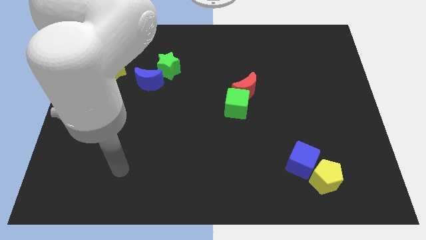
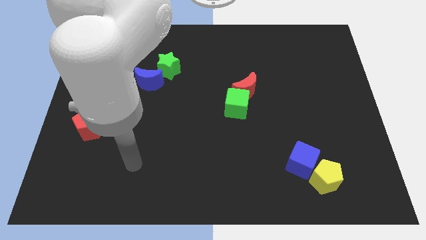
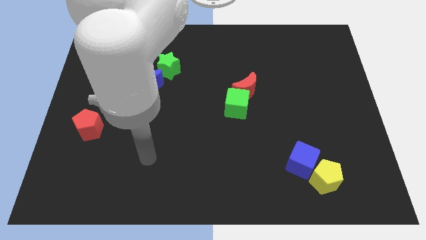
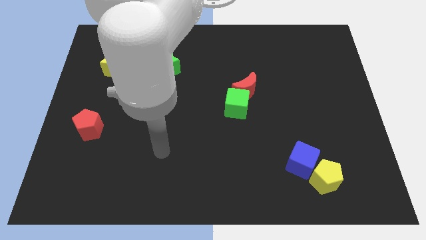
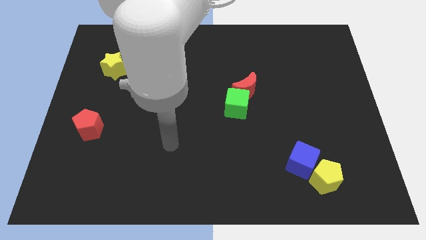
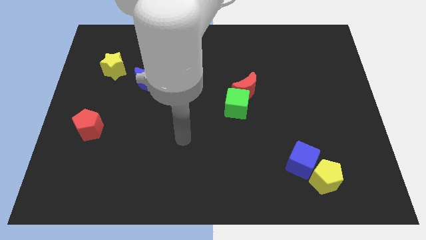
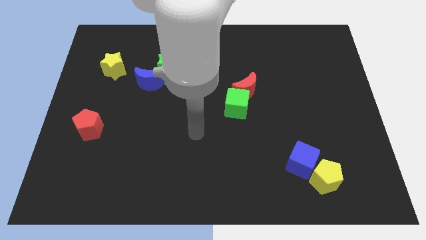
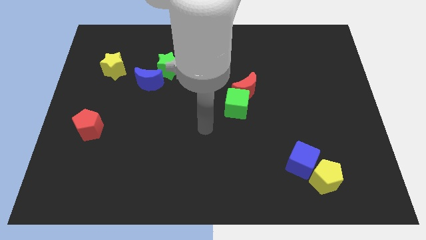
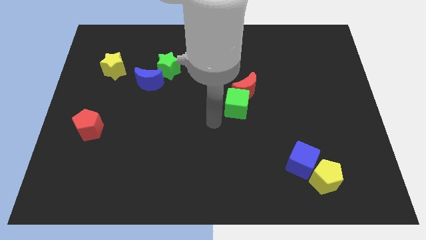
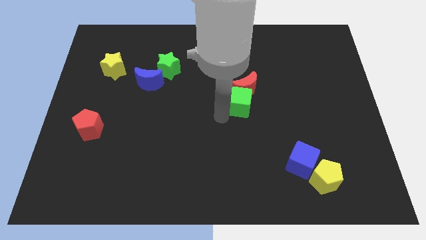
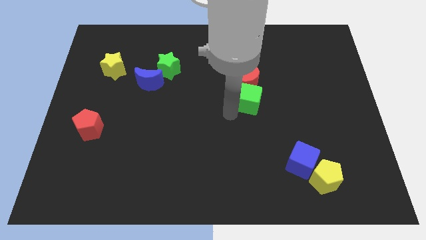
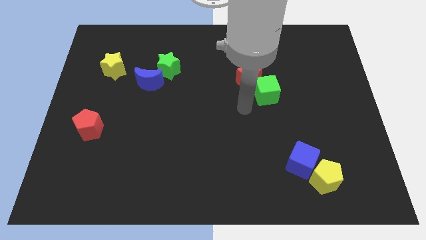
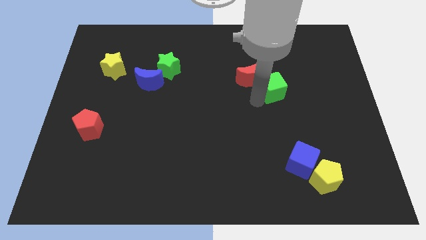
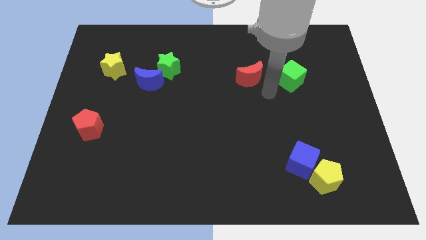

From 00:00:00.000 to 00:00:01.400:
separate the red moon from the green cube

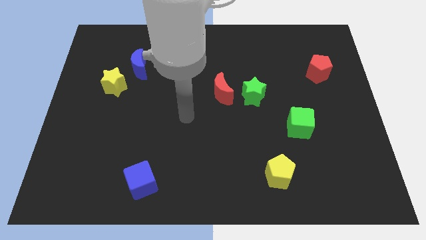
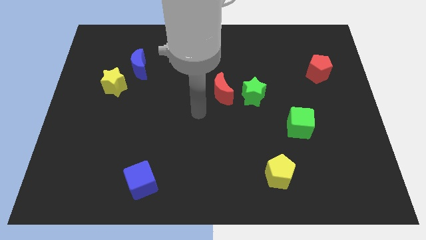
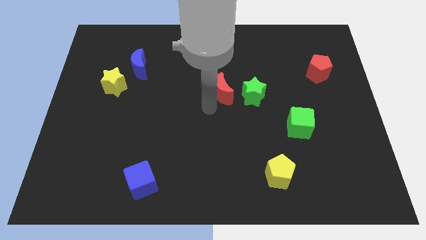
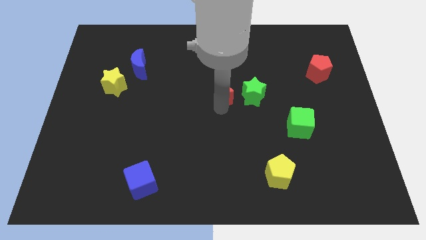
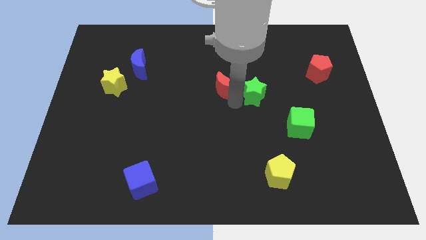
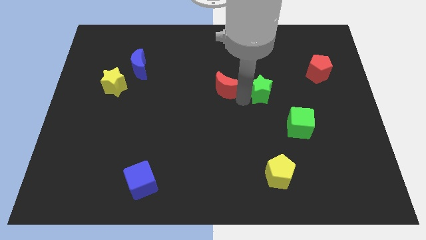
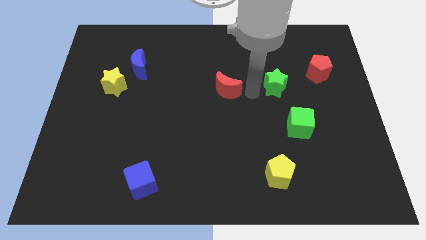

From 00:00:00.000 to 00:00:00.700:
pull the red moon apart from the green star

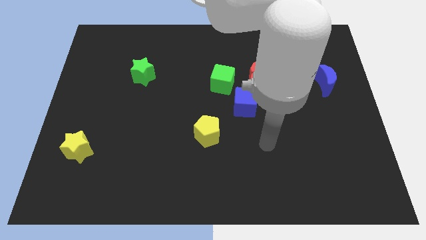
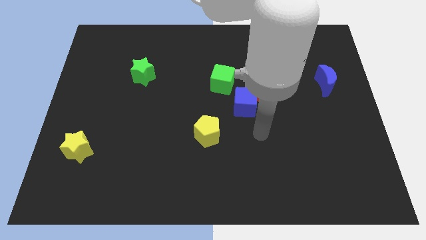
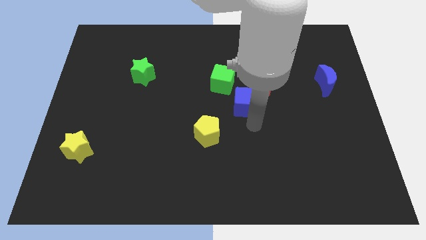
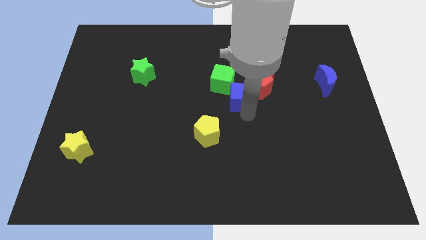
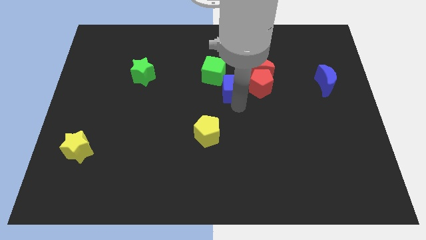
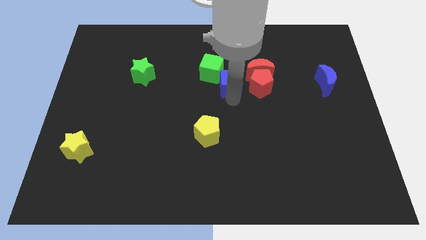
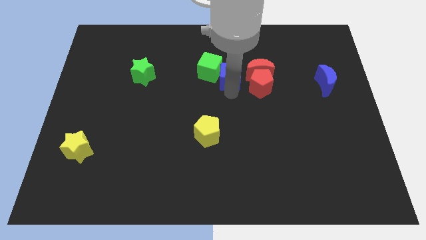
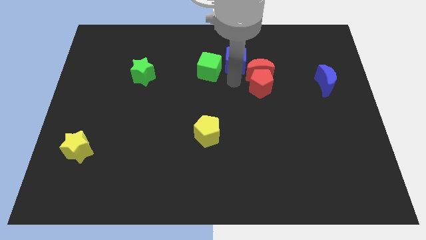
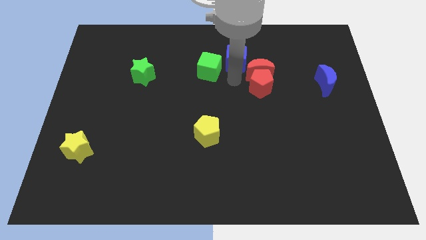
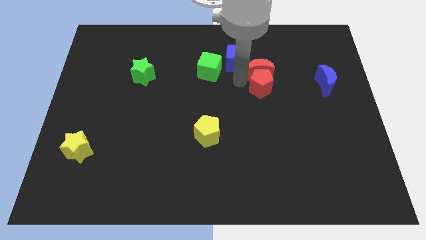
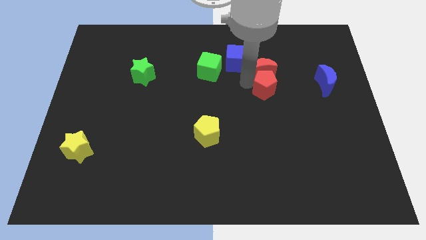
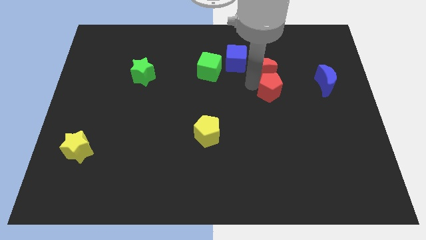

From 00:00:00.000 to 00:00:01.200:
separate the red pentagon from the red moon, blue cube, and green cube

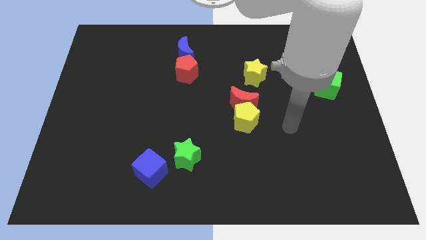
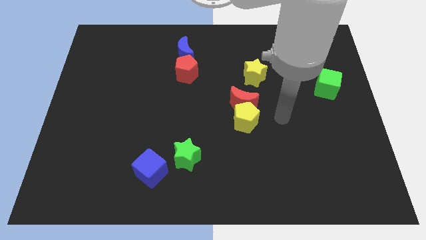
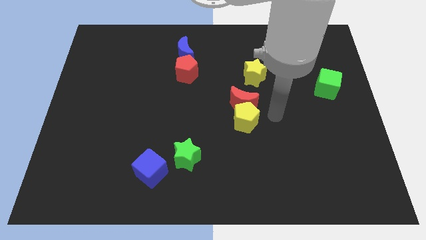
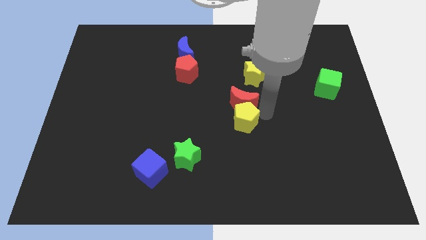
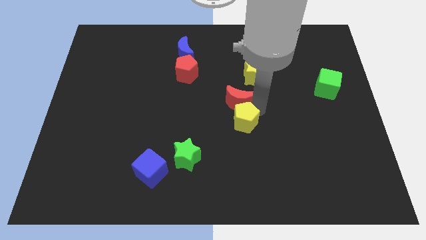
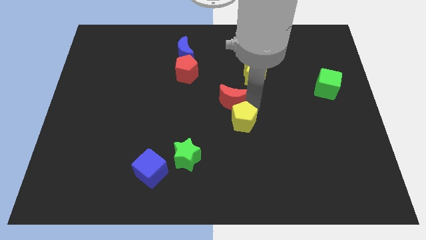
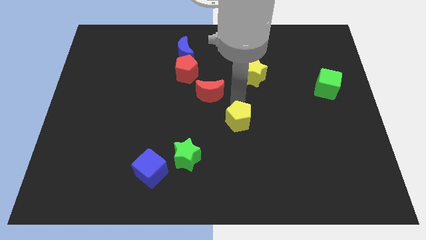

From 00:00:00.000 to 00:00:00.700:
pull the yellow pentagon apart from the red moon

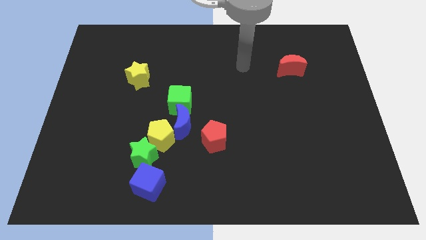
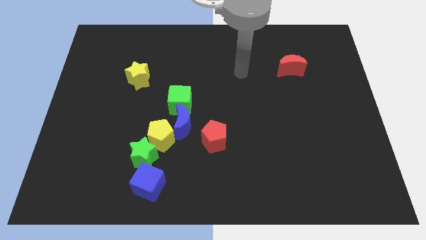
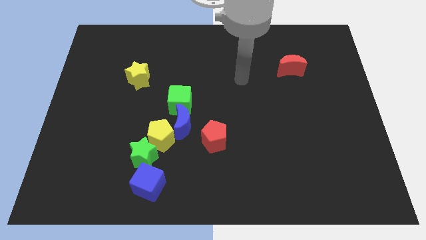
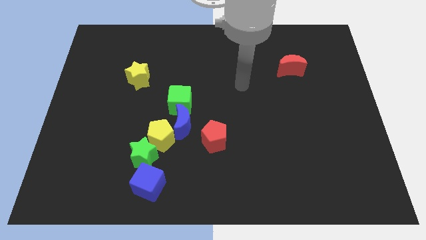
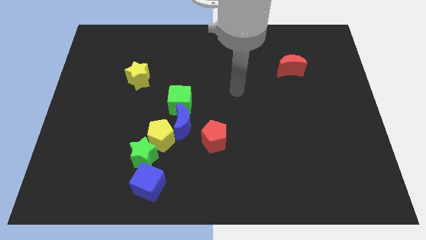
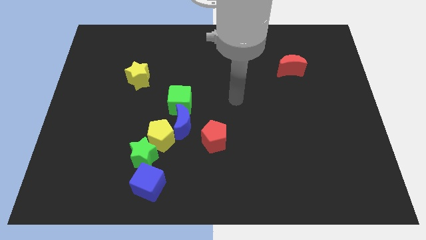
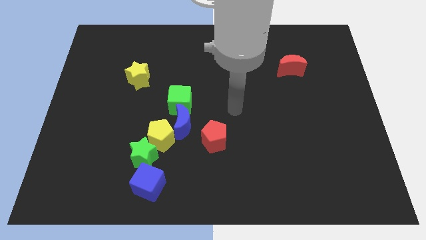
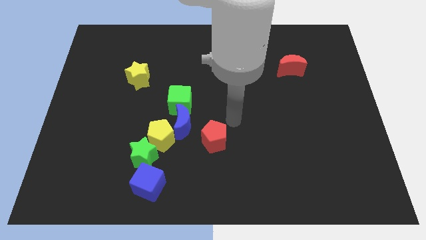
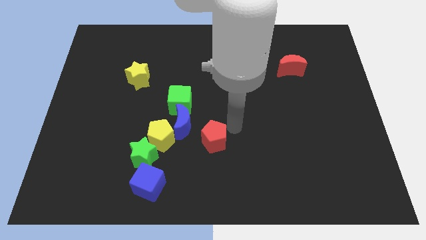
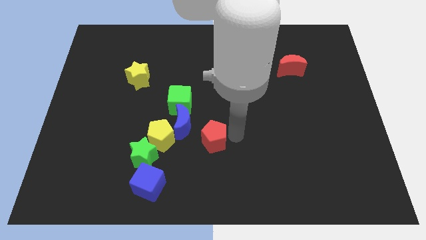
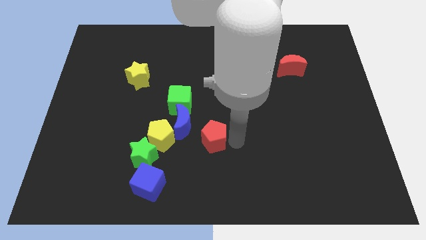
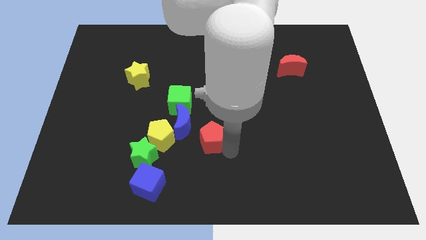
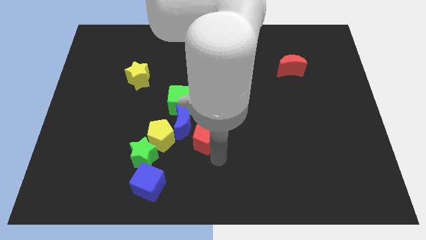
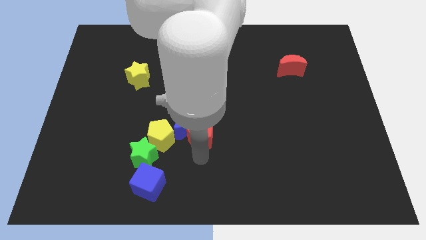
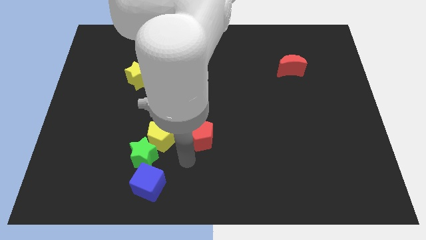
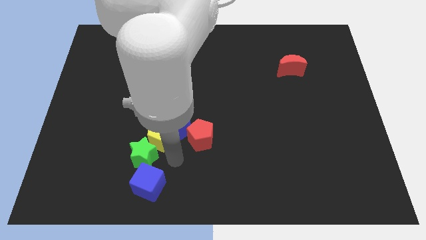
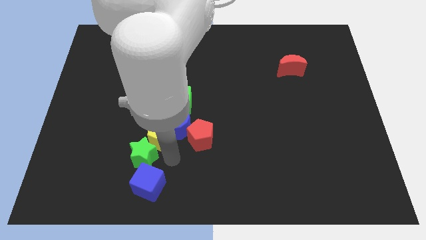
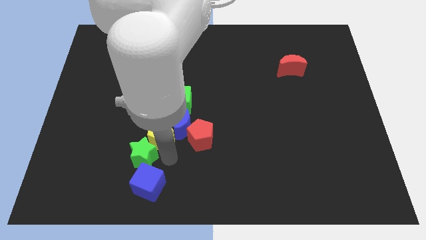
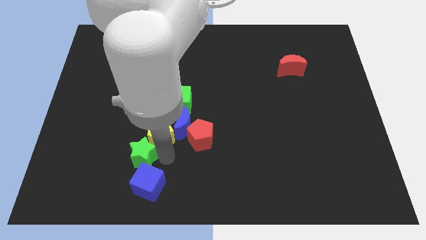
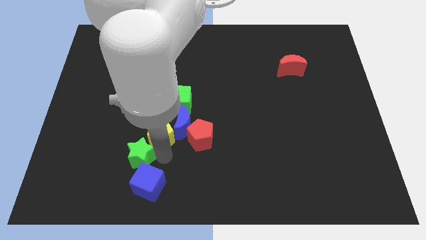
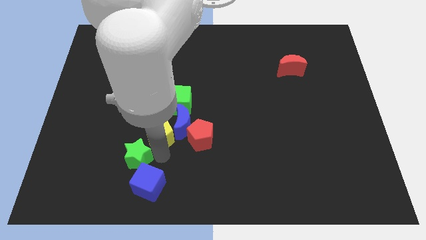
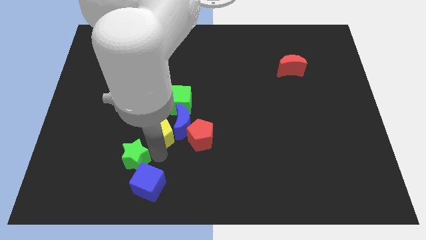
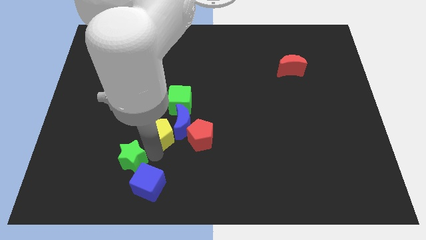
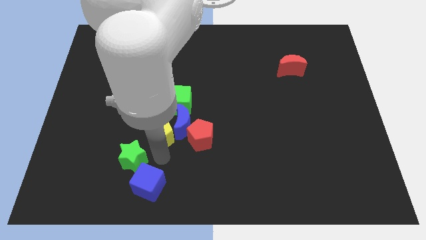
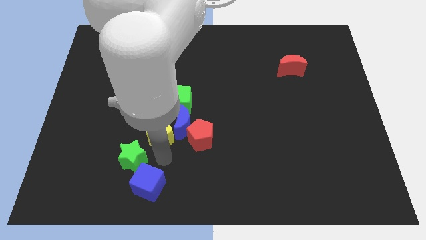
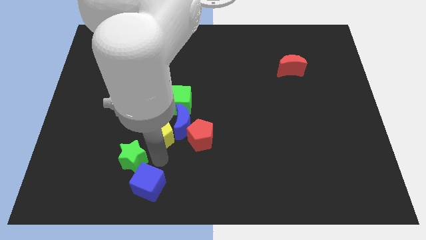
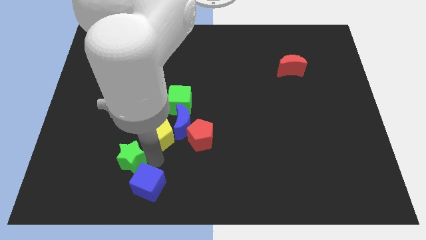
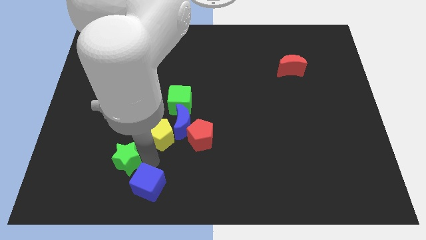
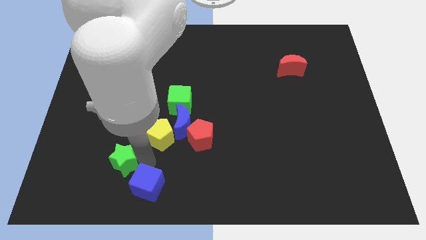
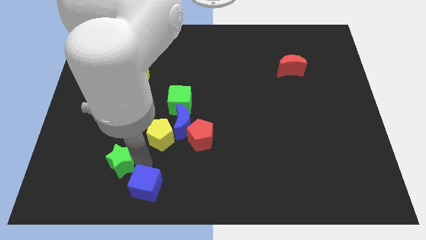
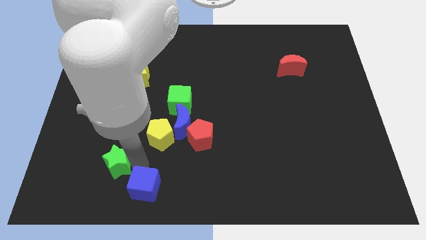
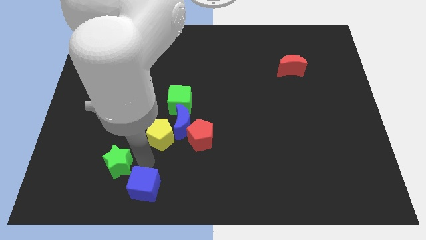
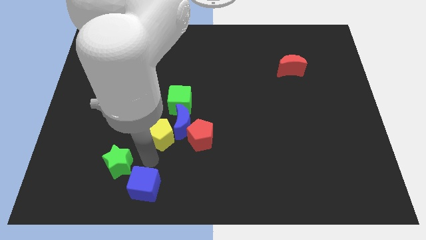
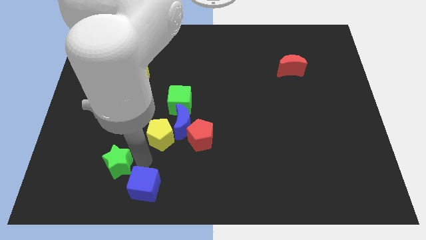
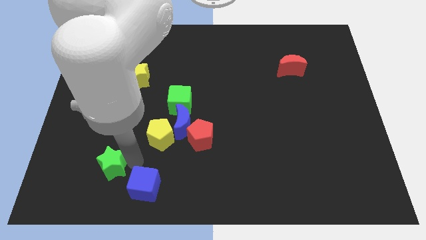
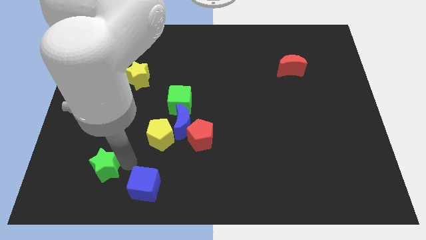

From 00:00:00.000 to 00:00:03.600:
pull the green star apart from the yellow pentagon and blue cube

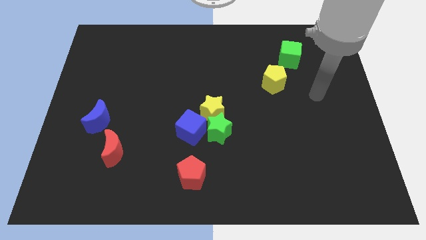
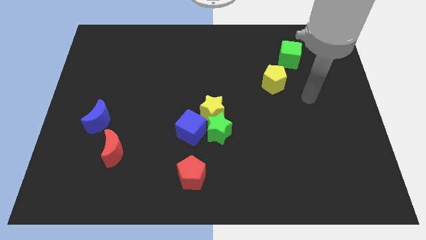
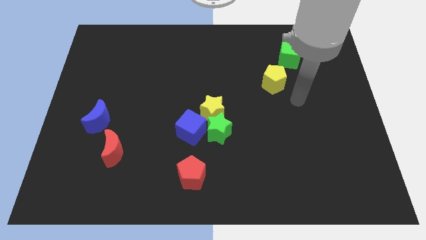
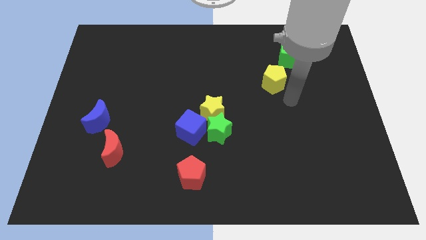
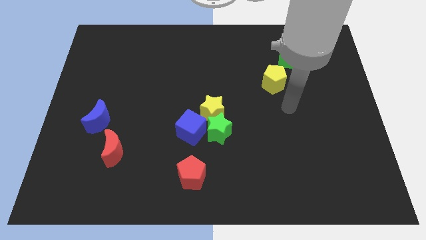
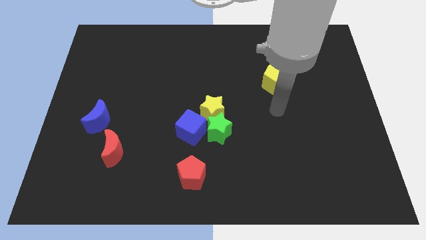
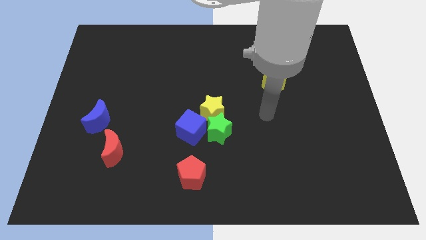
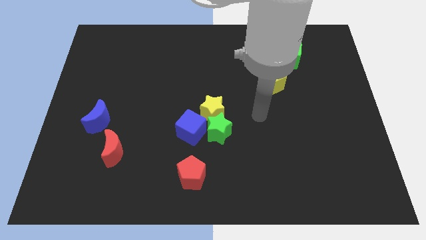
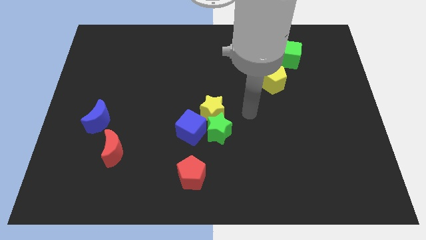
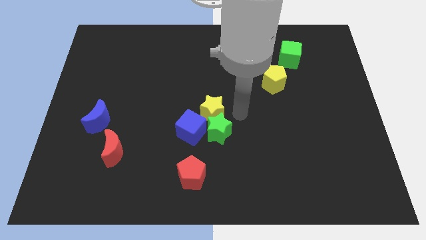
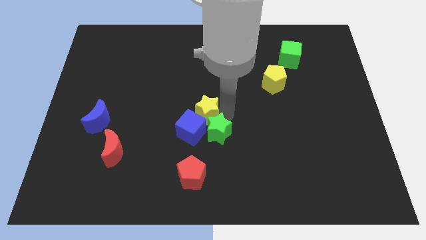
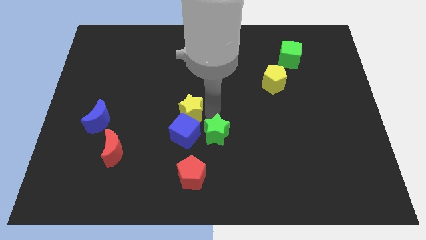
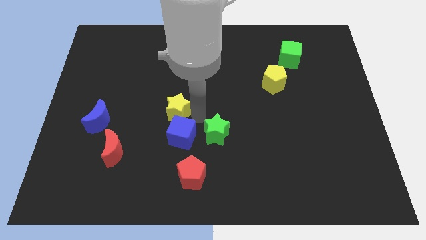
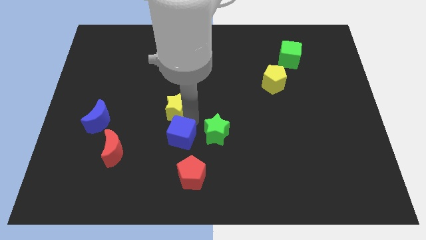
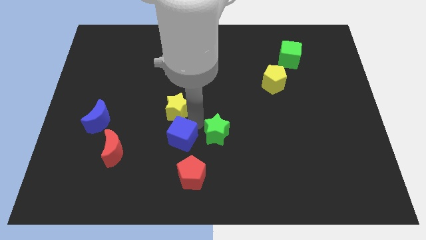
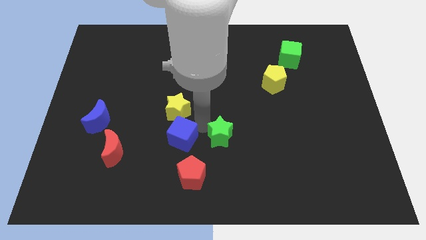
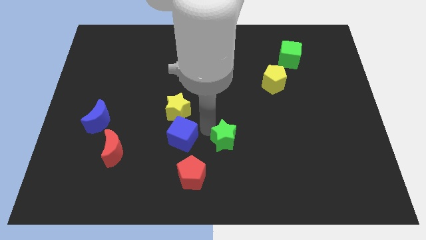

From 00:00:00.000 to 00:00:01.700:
pull the green star apart from the yellow star and blue cube
